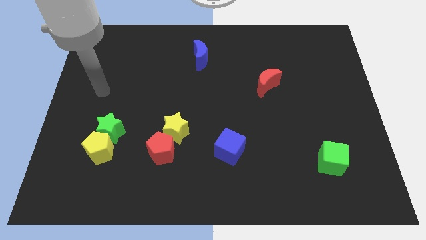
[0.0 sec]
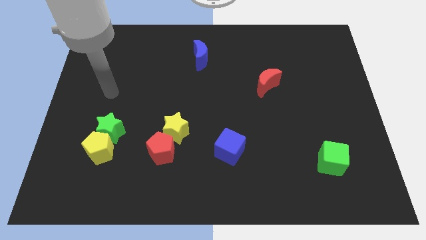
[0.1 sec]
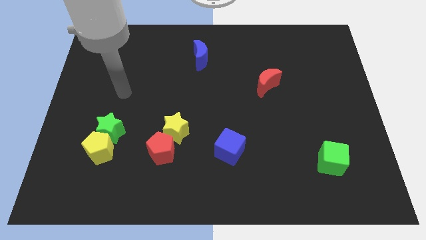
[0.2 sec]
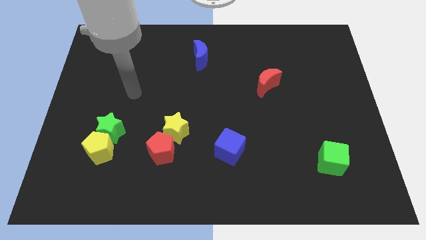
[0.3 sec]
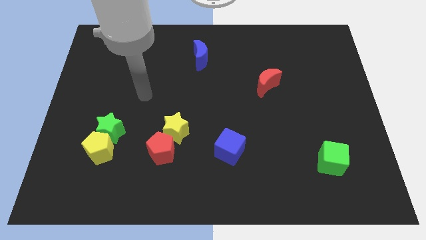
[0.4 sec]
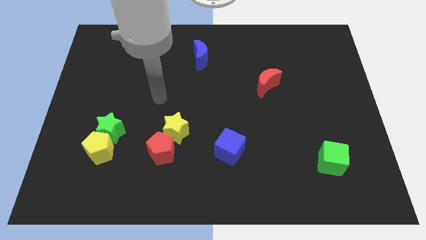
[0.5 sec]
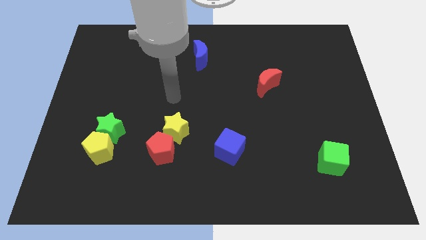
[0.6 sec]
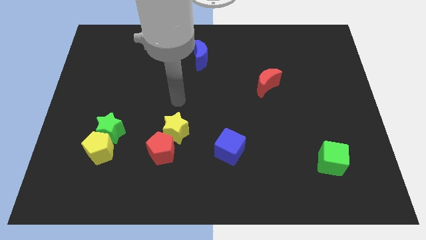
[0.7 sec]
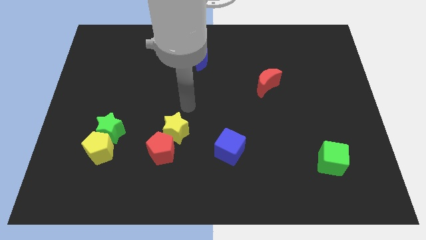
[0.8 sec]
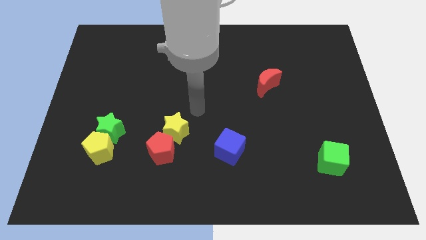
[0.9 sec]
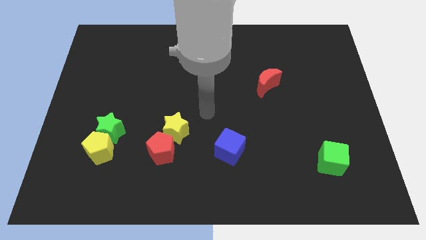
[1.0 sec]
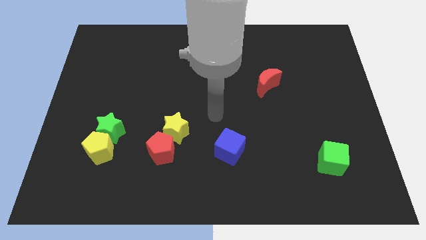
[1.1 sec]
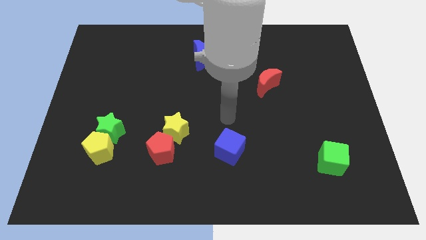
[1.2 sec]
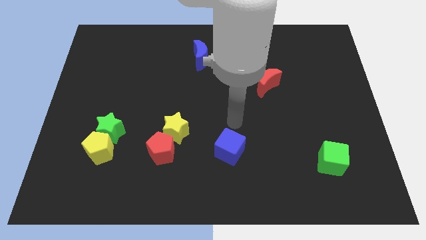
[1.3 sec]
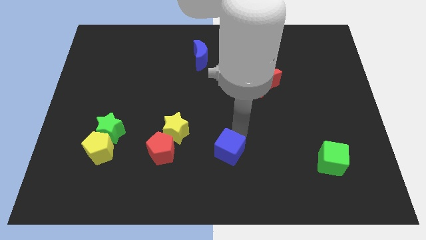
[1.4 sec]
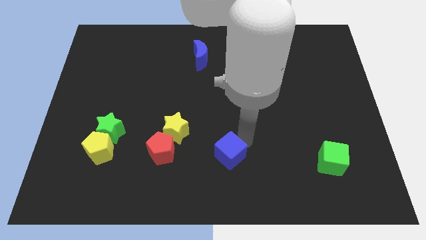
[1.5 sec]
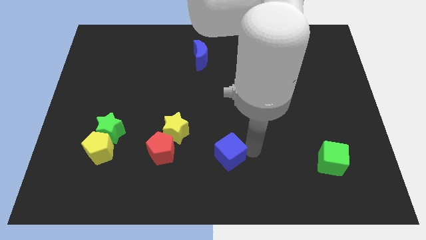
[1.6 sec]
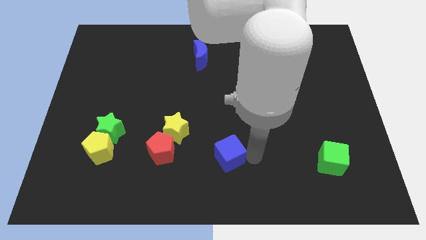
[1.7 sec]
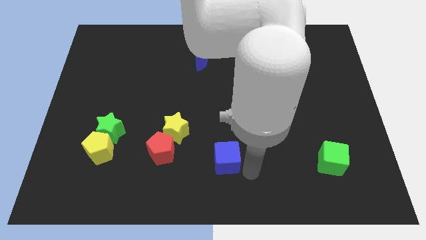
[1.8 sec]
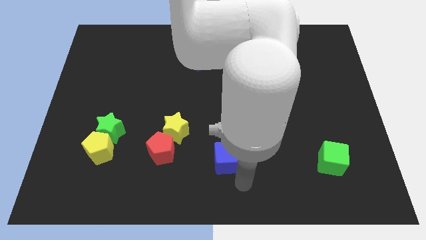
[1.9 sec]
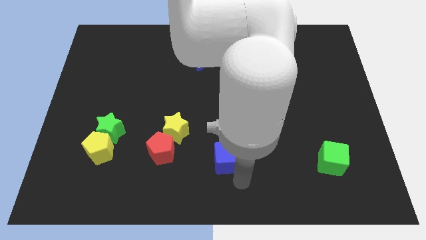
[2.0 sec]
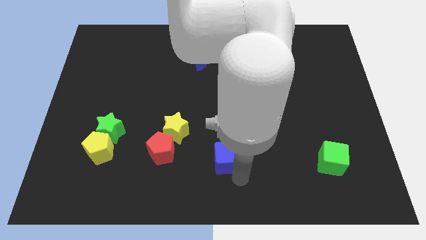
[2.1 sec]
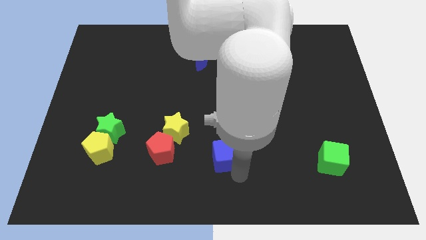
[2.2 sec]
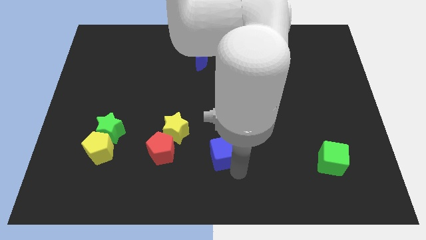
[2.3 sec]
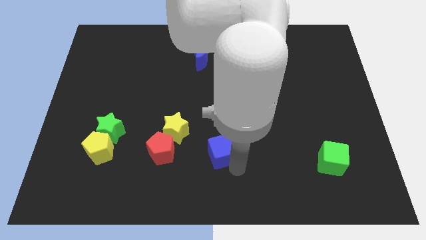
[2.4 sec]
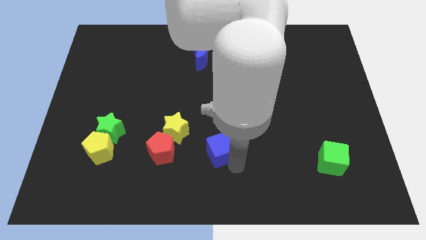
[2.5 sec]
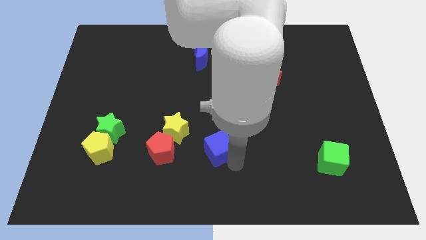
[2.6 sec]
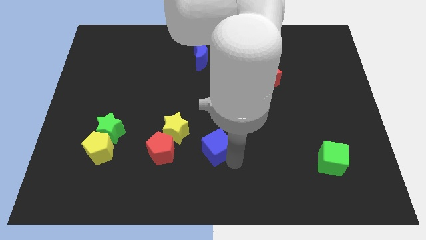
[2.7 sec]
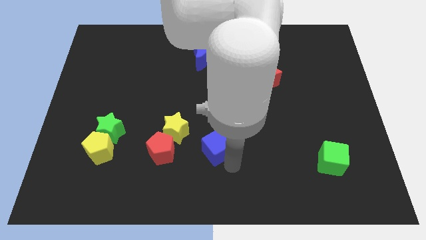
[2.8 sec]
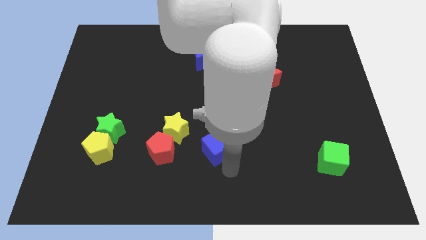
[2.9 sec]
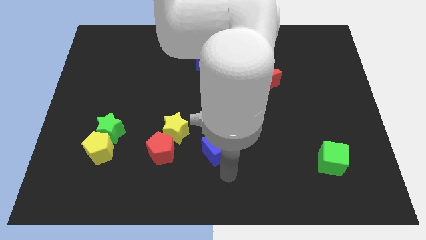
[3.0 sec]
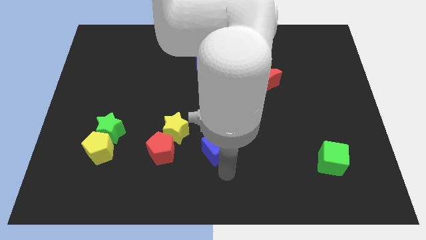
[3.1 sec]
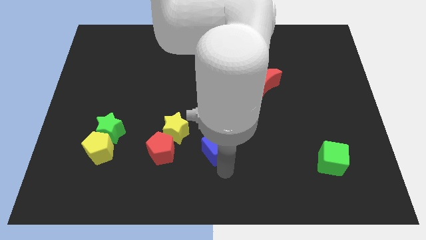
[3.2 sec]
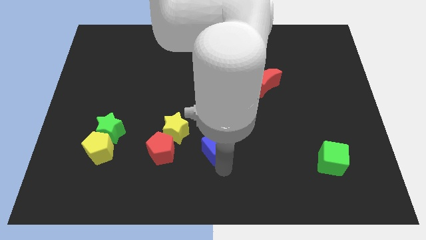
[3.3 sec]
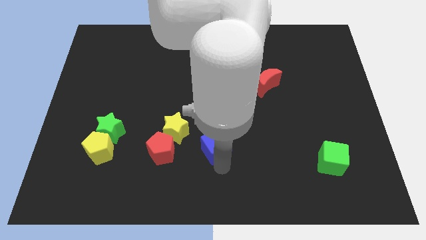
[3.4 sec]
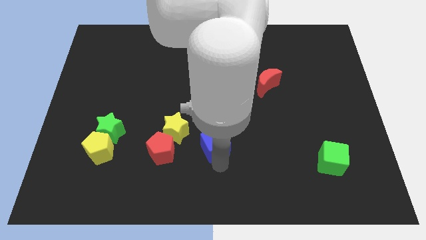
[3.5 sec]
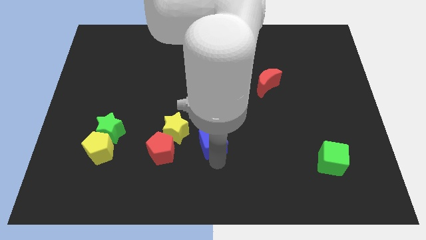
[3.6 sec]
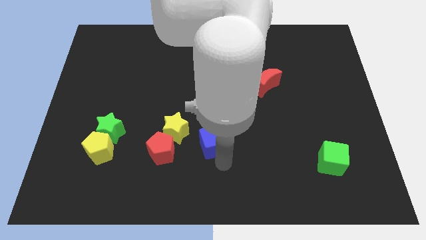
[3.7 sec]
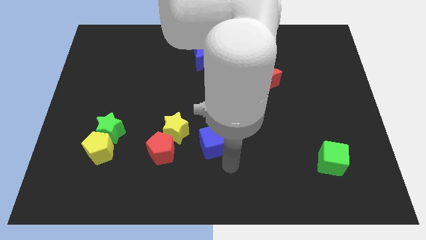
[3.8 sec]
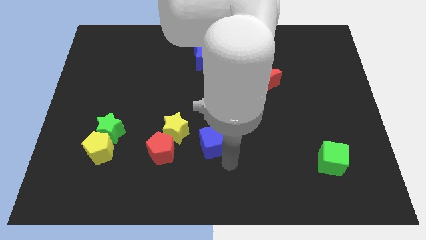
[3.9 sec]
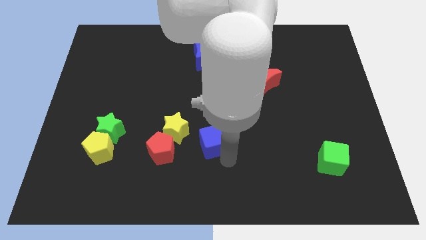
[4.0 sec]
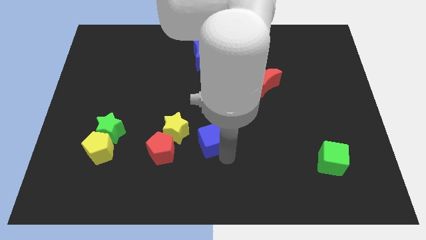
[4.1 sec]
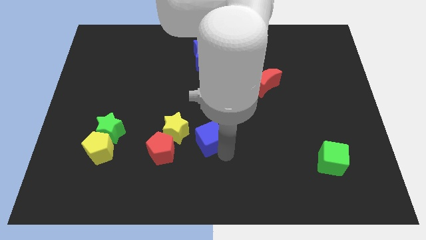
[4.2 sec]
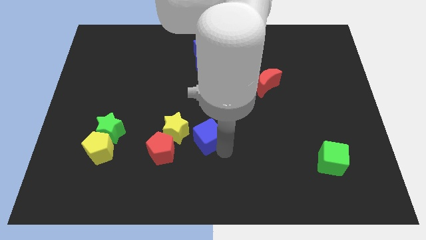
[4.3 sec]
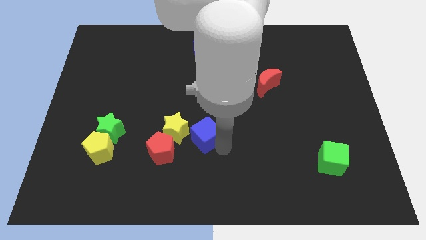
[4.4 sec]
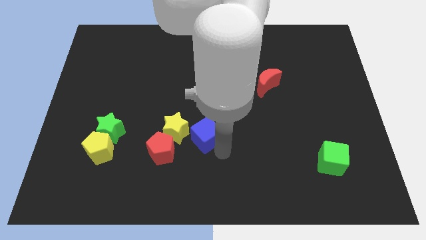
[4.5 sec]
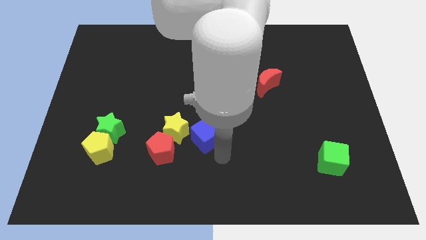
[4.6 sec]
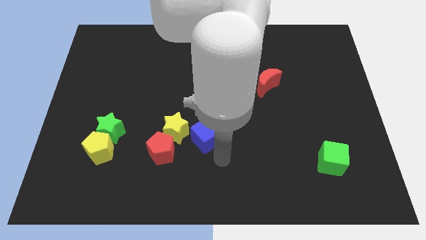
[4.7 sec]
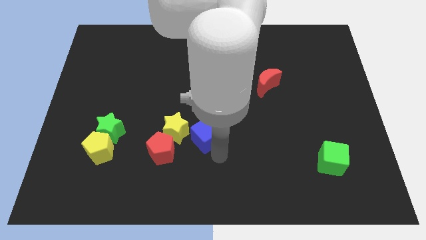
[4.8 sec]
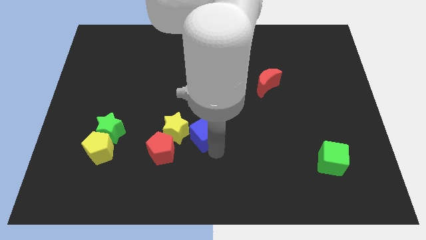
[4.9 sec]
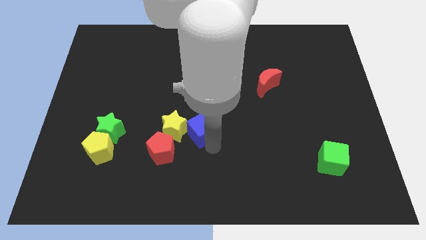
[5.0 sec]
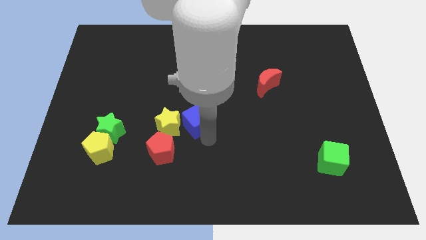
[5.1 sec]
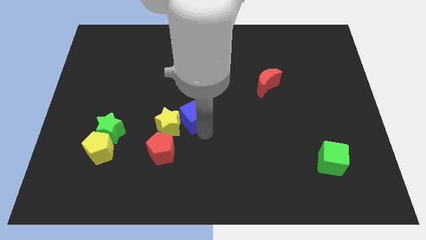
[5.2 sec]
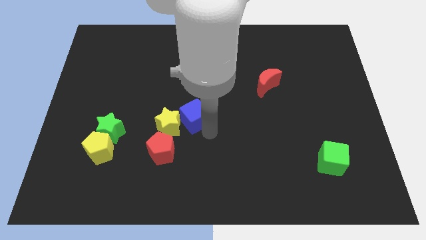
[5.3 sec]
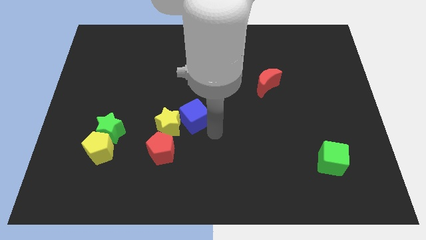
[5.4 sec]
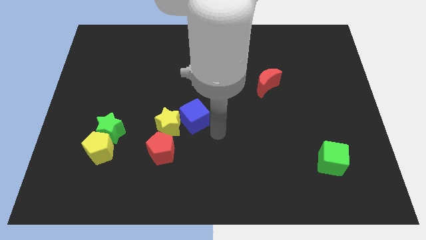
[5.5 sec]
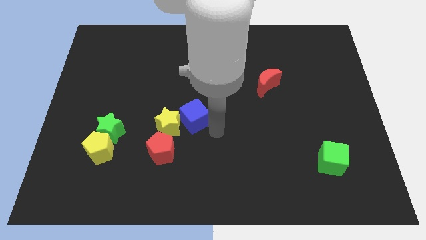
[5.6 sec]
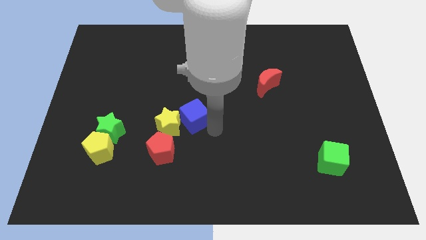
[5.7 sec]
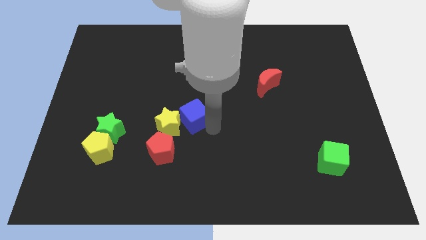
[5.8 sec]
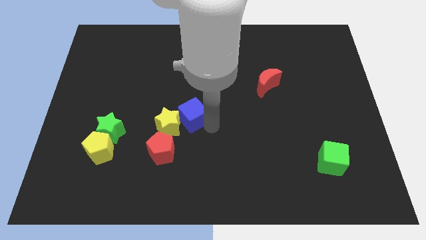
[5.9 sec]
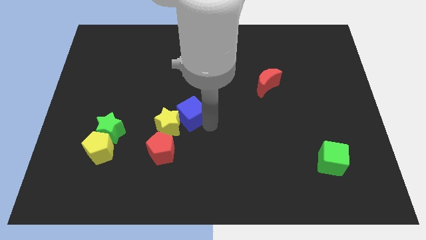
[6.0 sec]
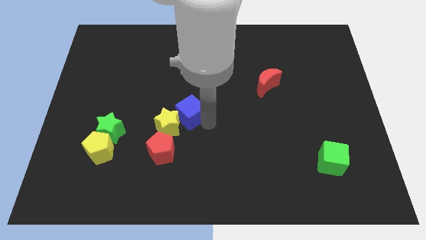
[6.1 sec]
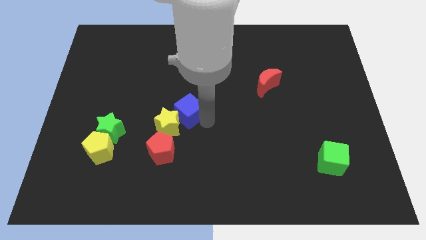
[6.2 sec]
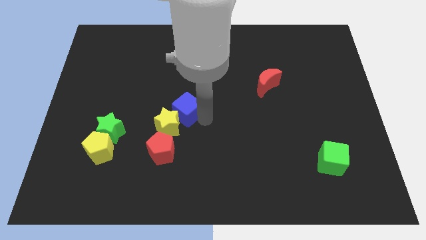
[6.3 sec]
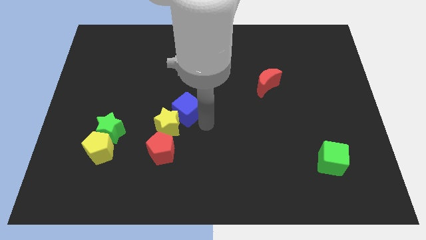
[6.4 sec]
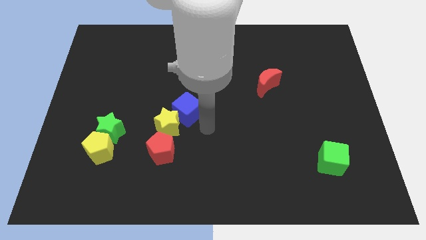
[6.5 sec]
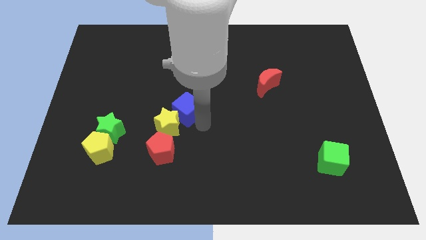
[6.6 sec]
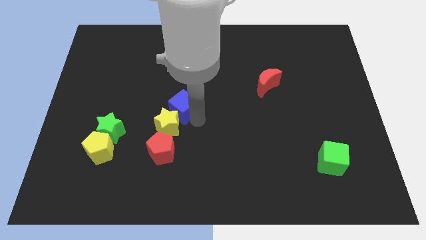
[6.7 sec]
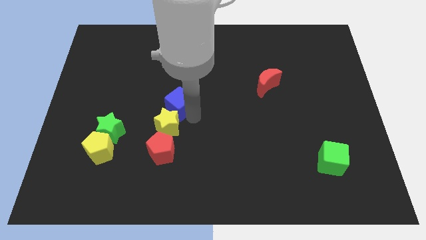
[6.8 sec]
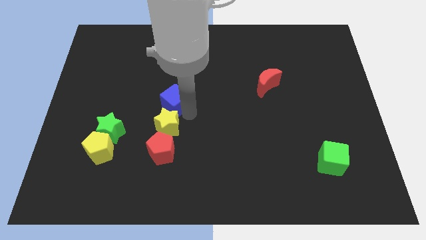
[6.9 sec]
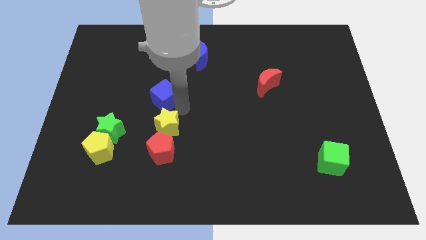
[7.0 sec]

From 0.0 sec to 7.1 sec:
push the blue cube upwards and to the left

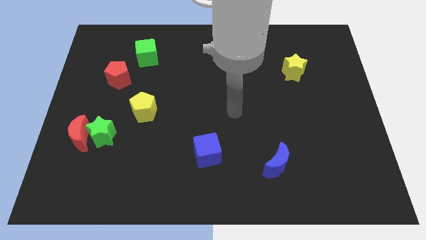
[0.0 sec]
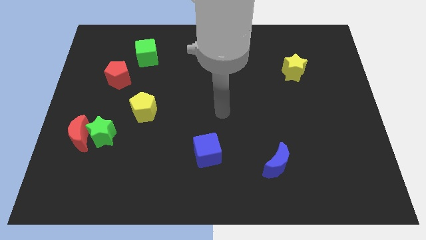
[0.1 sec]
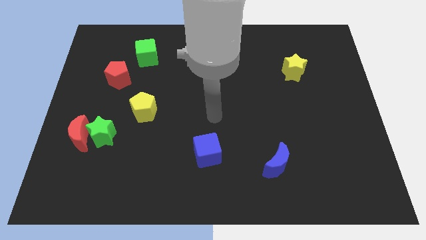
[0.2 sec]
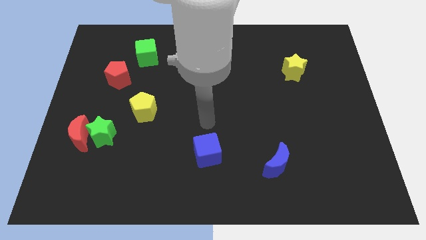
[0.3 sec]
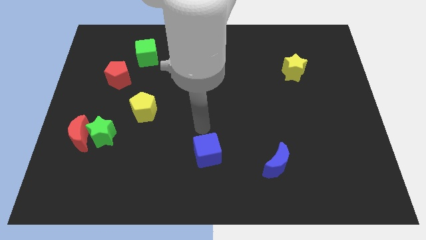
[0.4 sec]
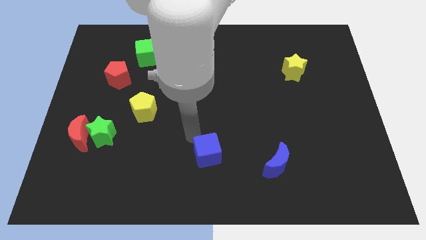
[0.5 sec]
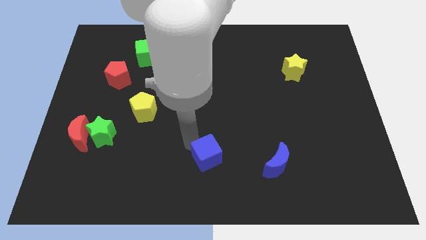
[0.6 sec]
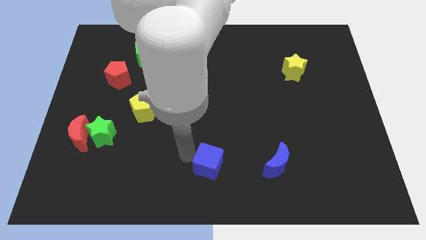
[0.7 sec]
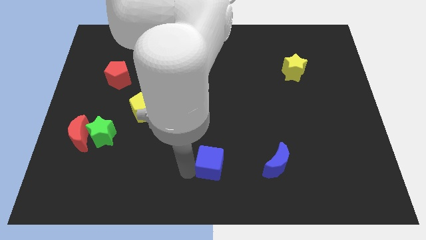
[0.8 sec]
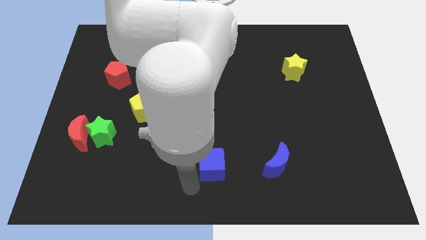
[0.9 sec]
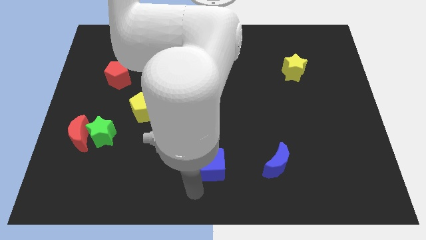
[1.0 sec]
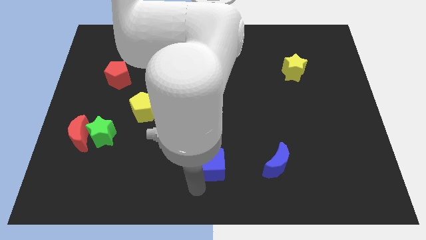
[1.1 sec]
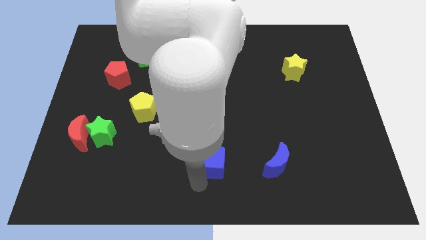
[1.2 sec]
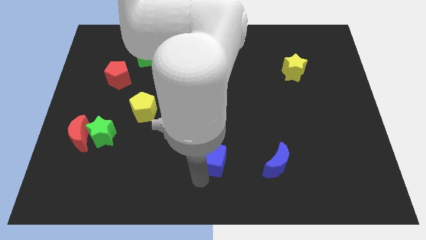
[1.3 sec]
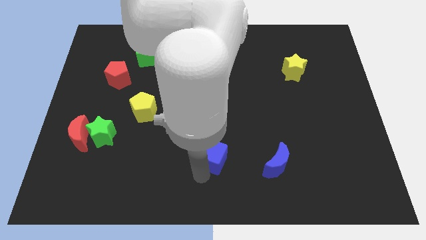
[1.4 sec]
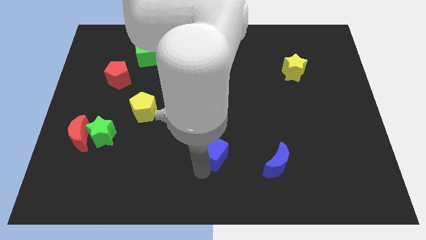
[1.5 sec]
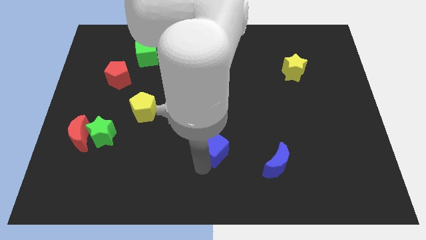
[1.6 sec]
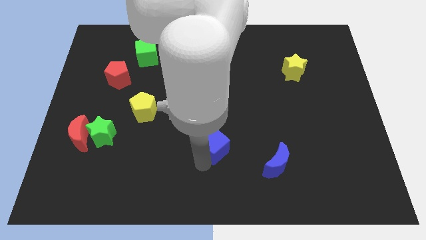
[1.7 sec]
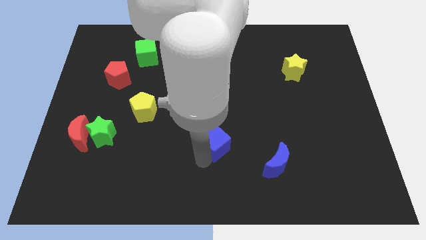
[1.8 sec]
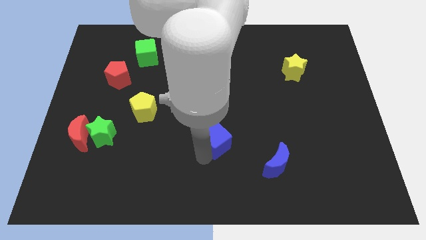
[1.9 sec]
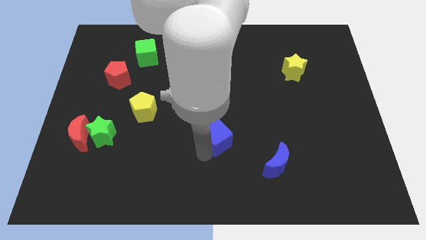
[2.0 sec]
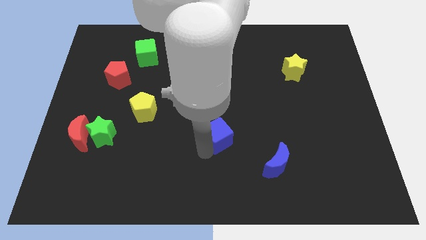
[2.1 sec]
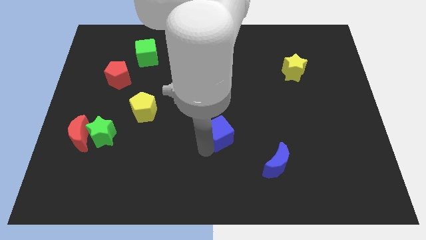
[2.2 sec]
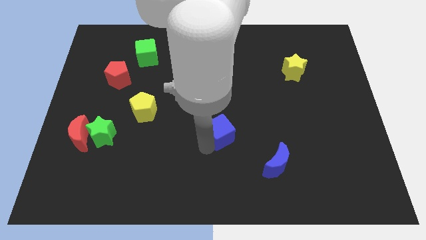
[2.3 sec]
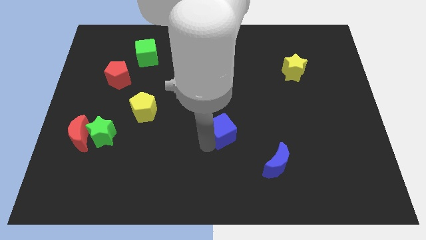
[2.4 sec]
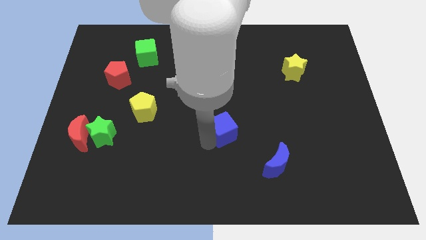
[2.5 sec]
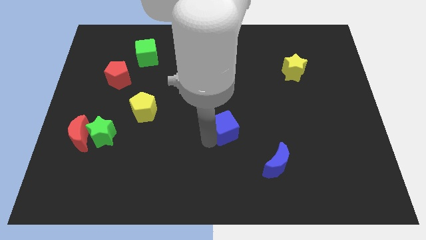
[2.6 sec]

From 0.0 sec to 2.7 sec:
slide the blue cube upwards and then to the right somewhat
